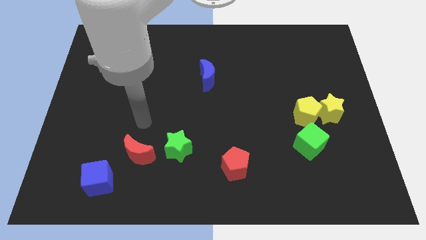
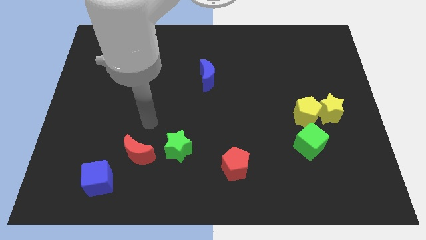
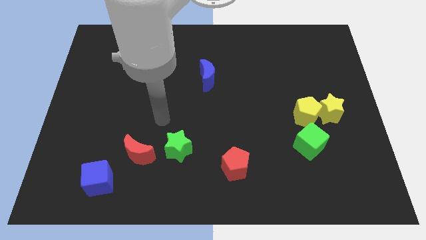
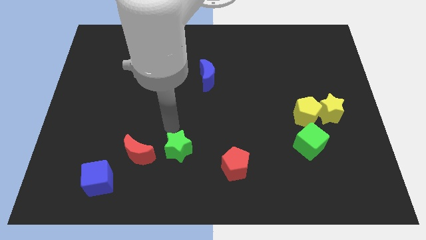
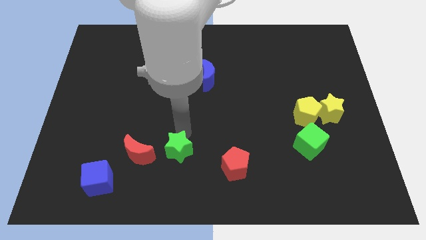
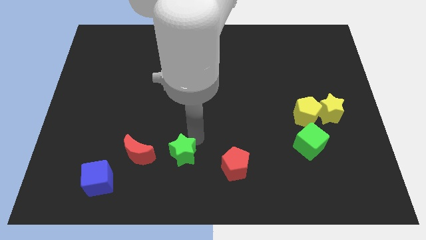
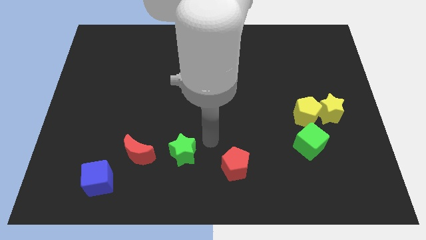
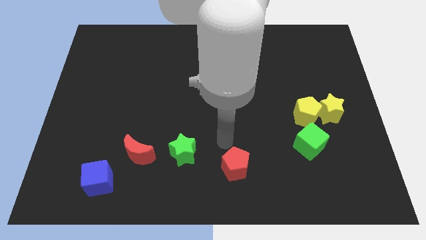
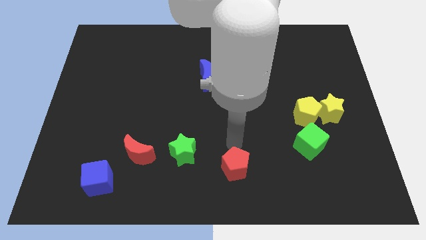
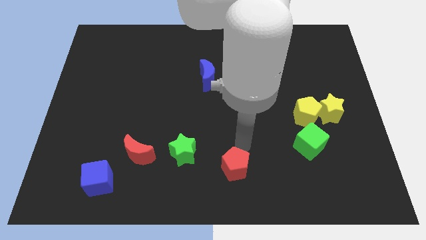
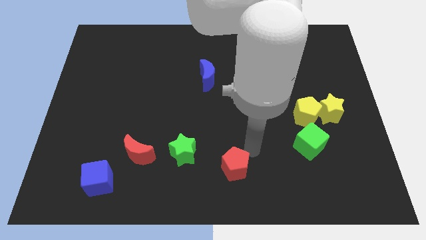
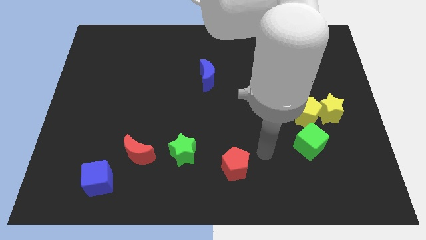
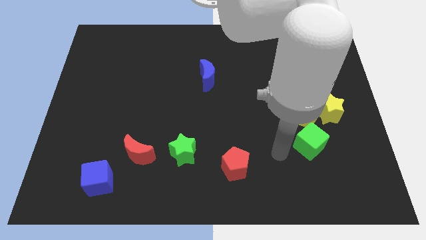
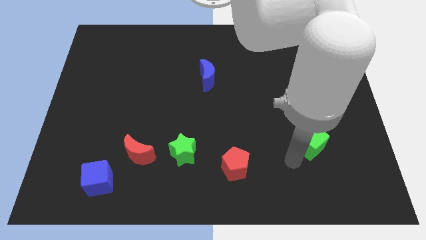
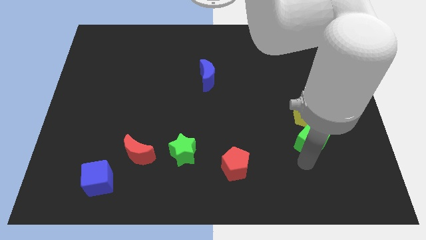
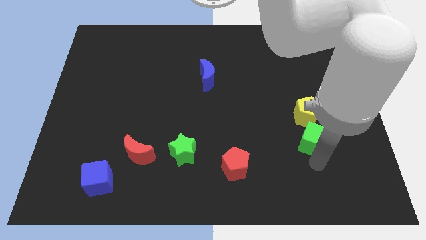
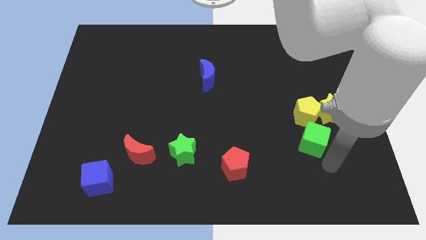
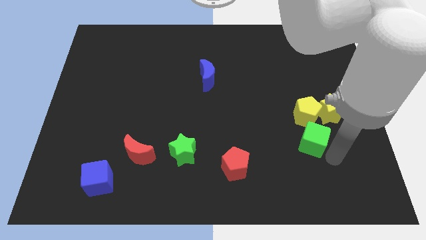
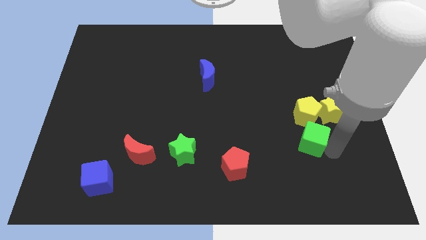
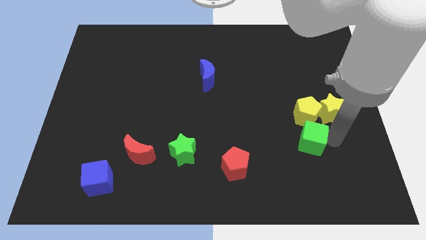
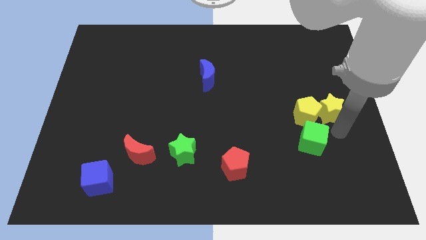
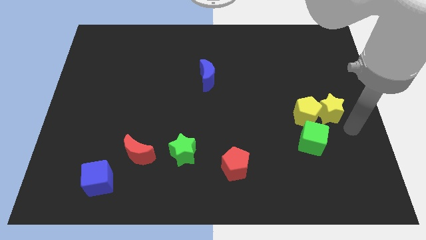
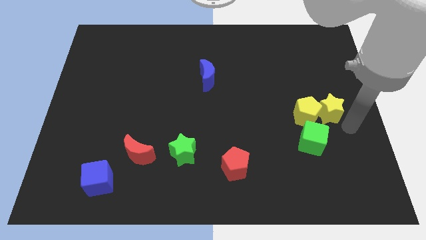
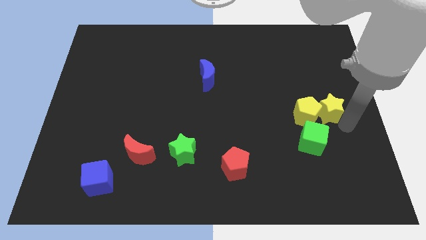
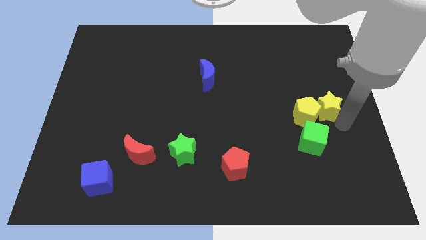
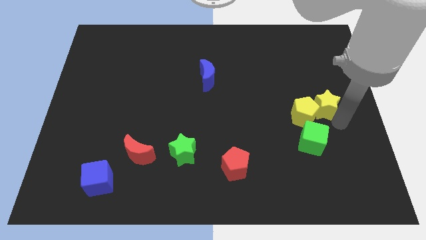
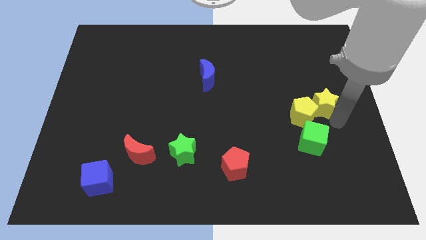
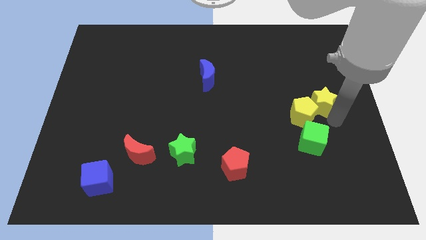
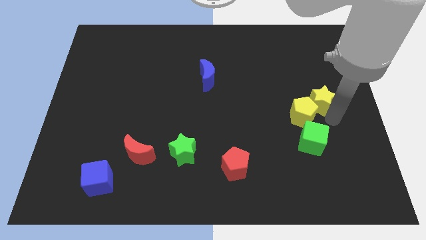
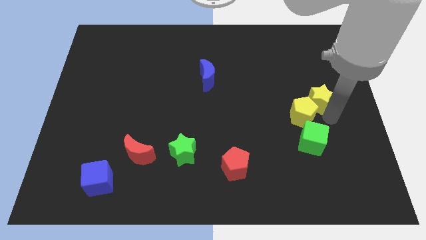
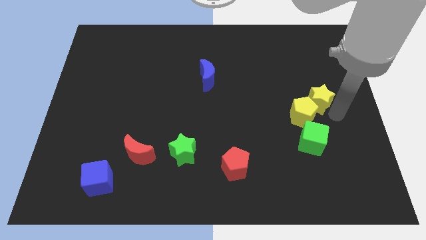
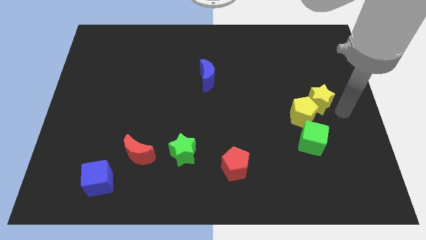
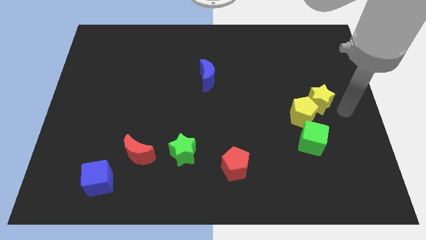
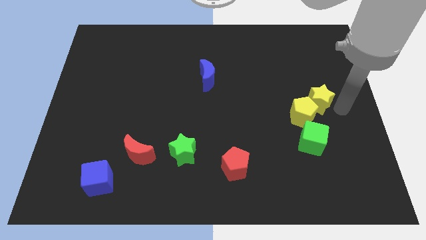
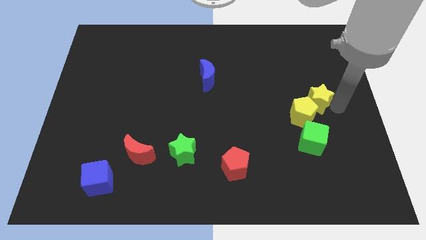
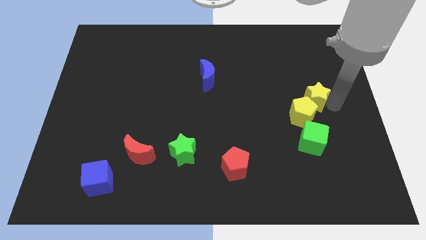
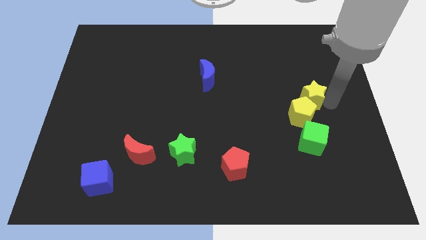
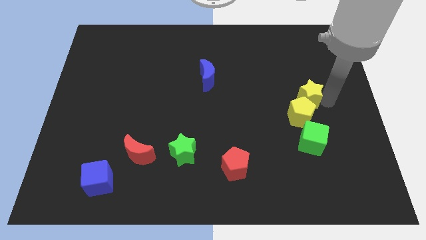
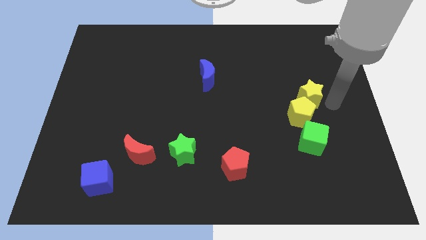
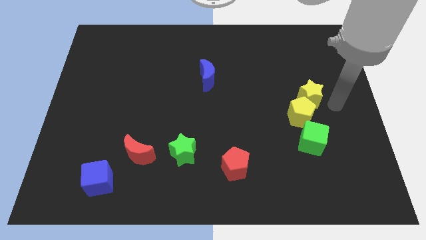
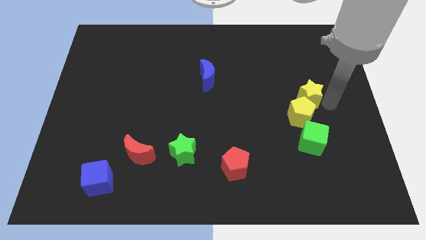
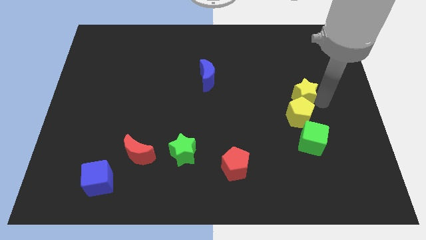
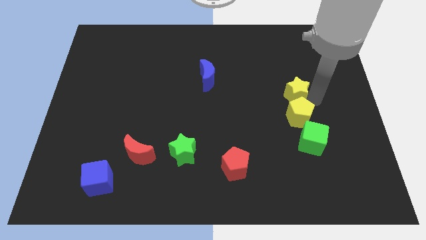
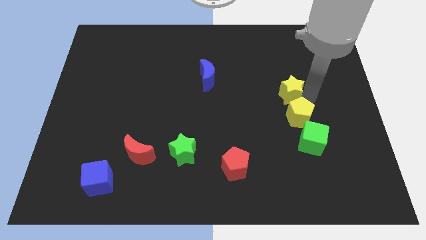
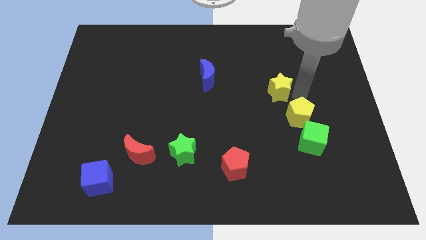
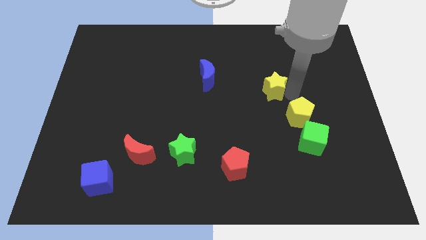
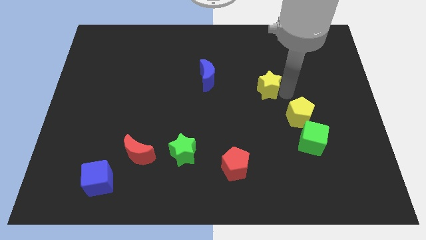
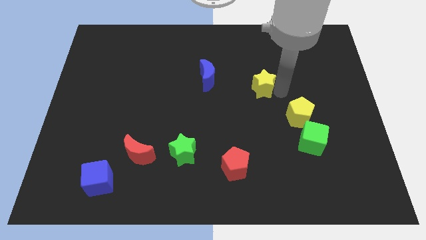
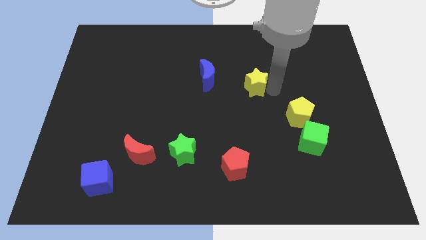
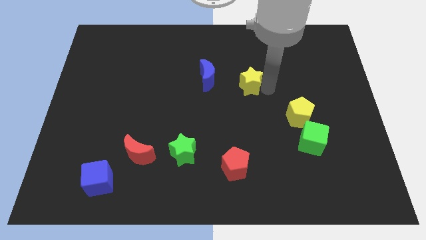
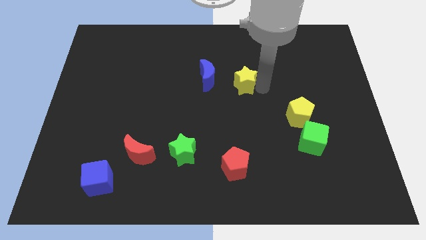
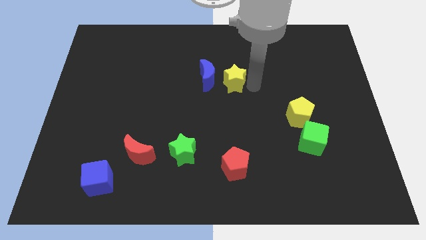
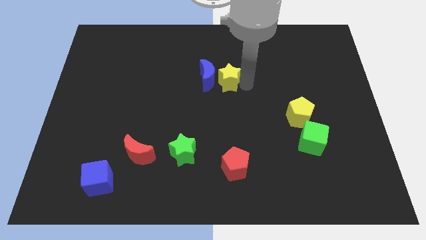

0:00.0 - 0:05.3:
push the yellow star to the blue moon

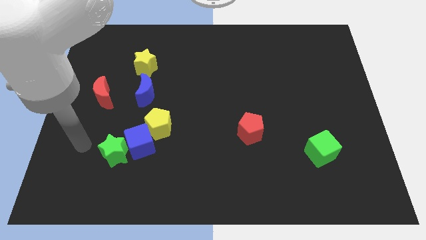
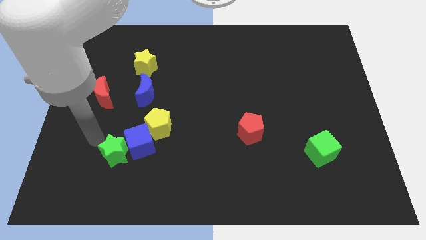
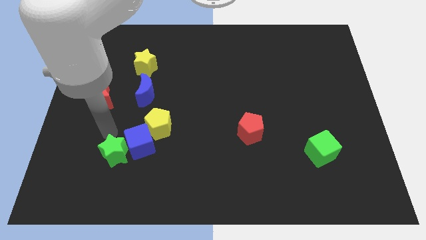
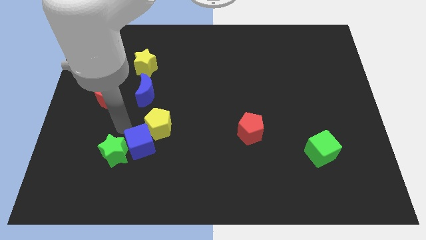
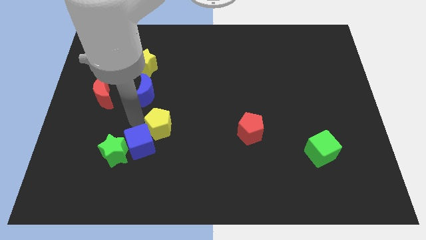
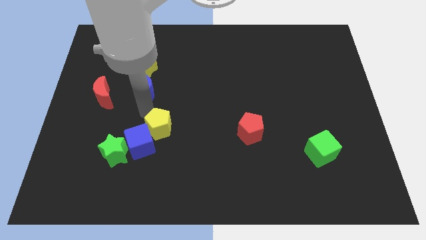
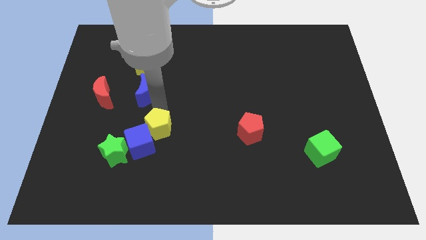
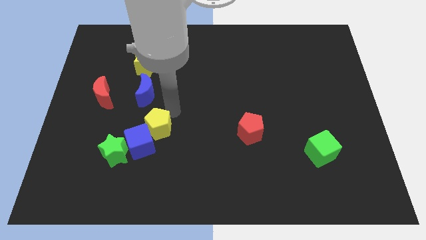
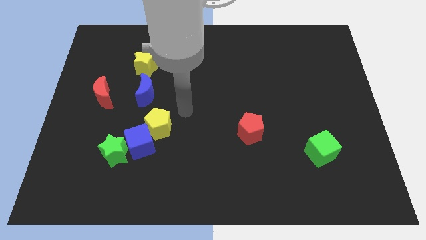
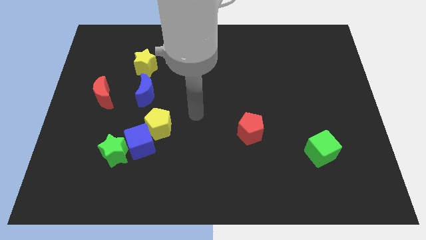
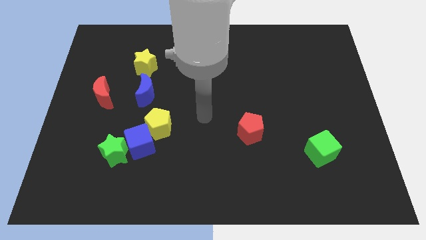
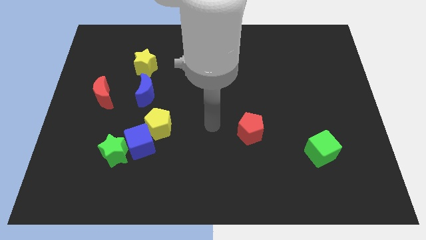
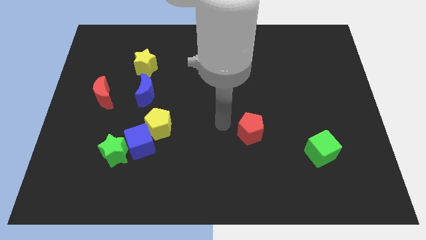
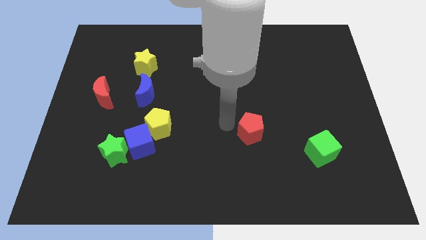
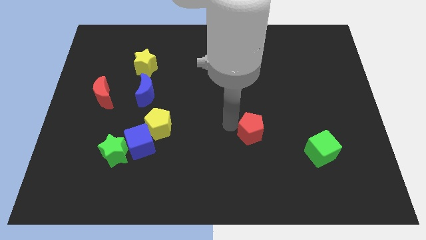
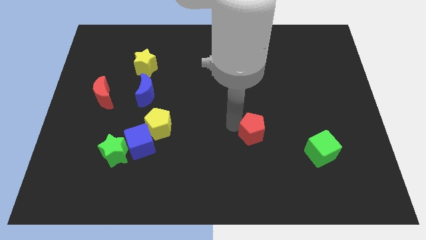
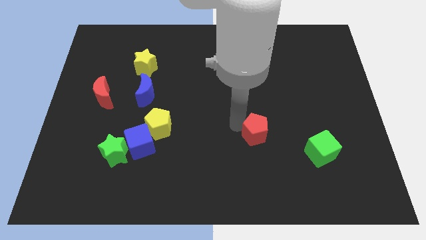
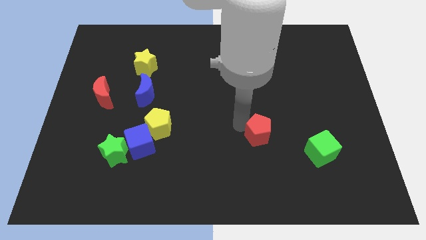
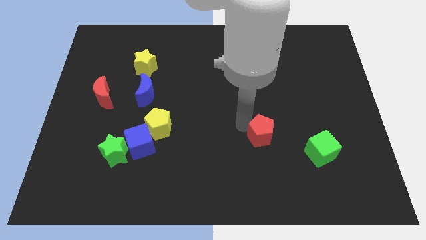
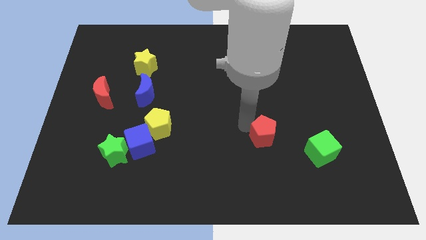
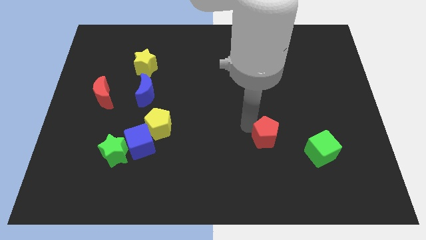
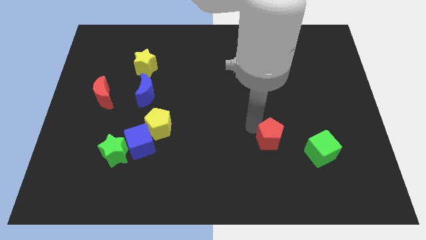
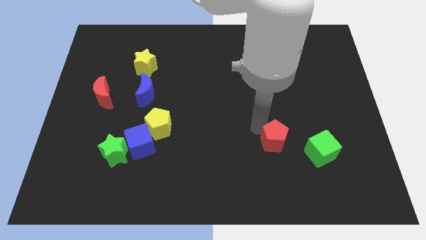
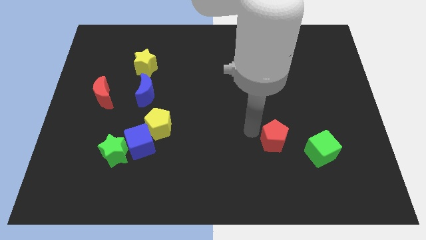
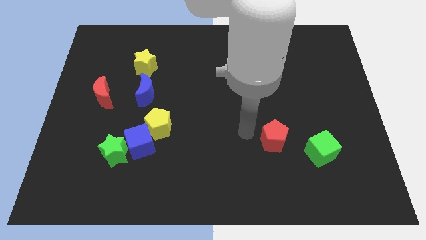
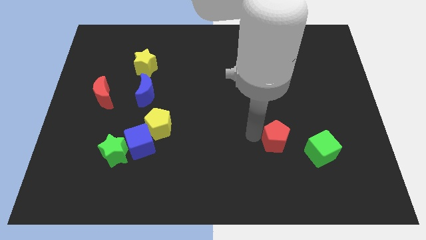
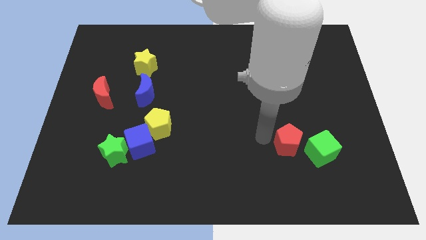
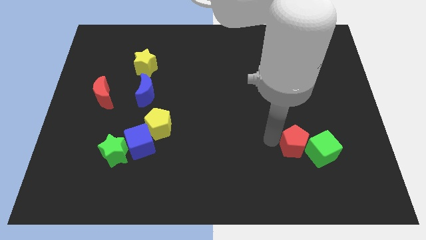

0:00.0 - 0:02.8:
put the red pentagon next to the green cube
